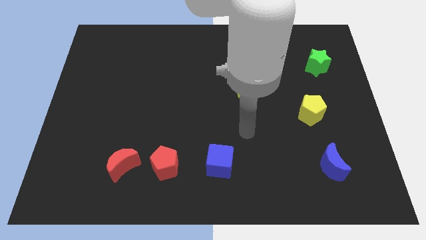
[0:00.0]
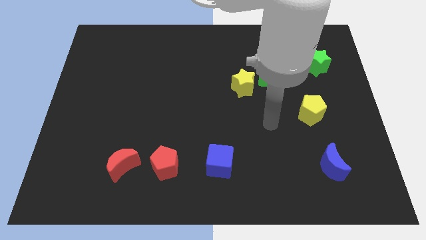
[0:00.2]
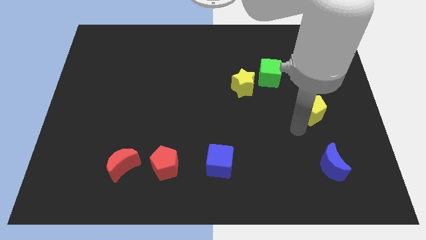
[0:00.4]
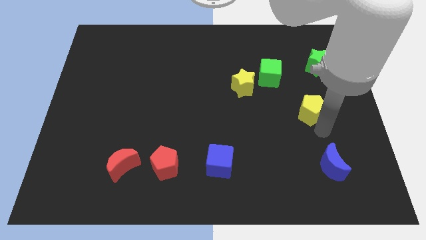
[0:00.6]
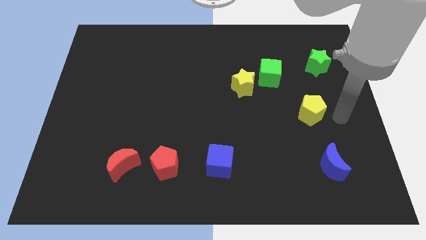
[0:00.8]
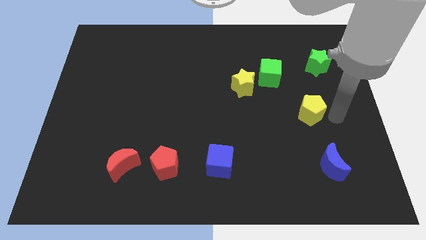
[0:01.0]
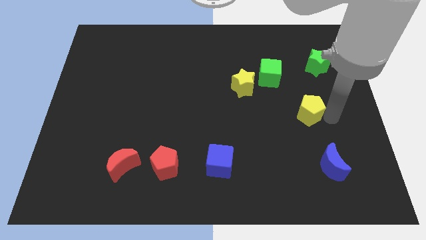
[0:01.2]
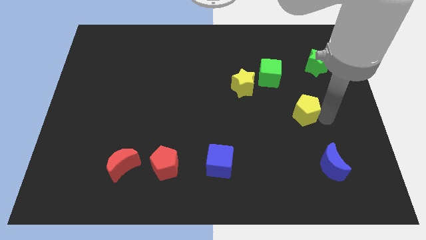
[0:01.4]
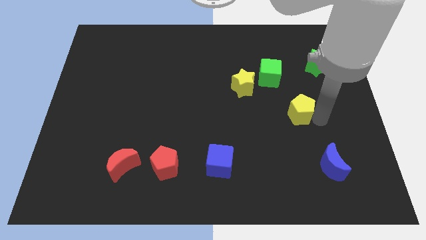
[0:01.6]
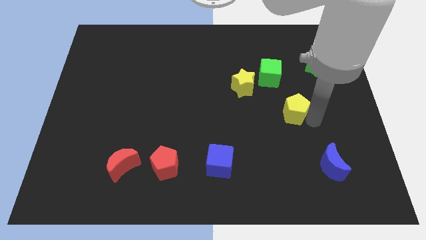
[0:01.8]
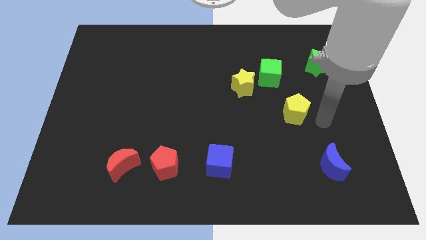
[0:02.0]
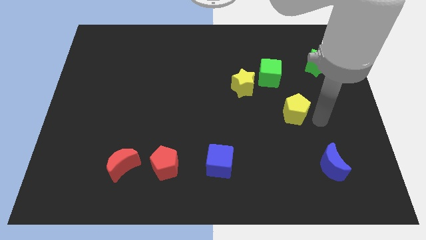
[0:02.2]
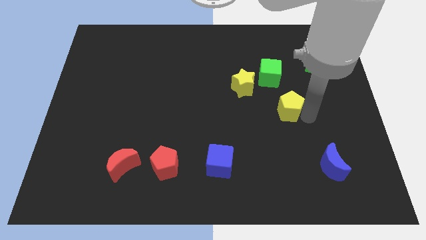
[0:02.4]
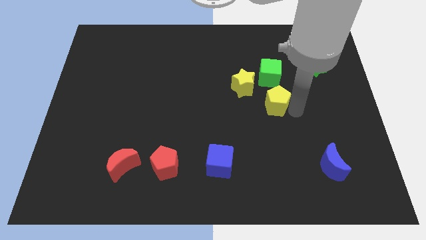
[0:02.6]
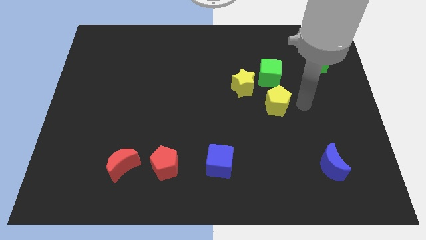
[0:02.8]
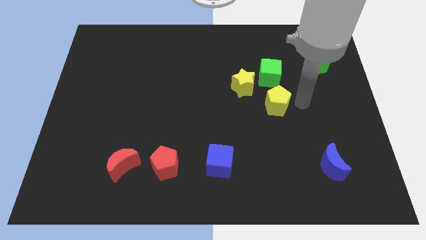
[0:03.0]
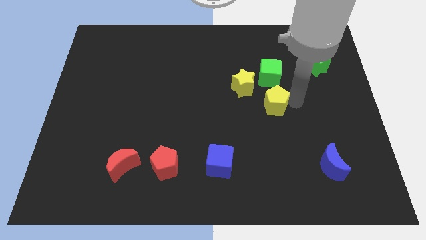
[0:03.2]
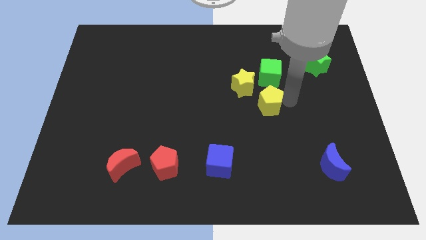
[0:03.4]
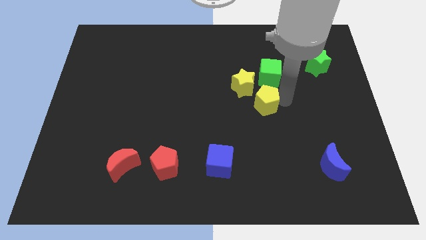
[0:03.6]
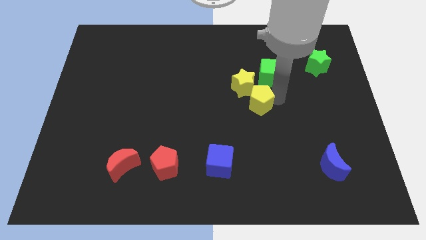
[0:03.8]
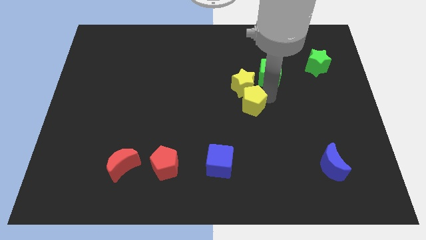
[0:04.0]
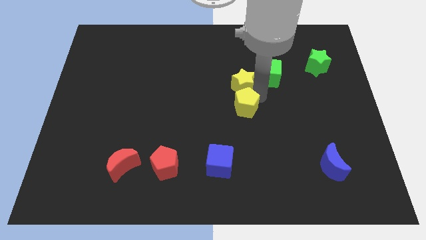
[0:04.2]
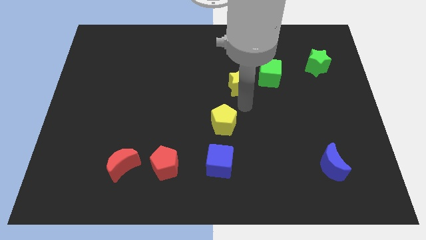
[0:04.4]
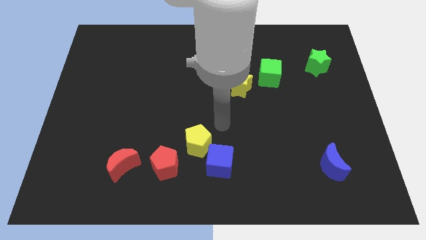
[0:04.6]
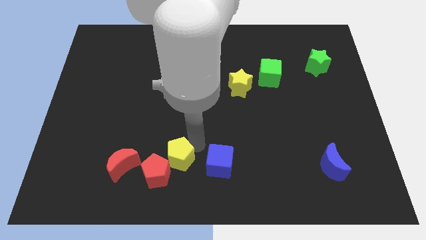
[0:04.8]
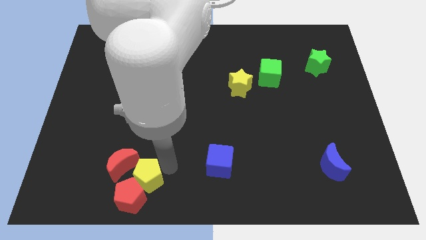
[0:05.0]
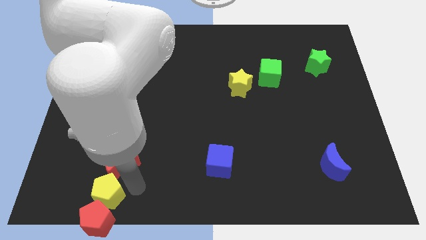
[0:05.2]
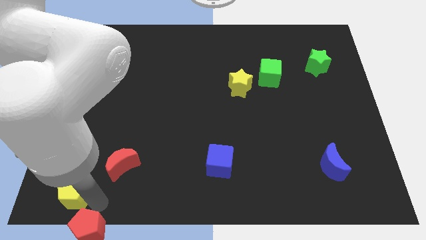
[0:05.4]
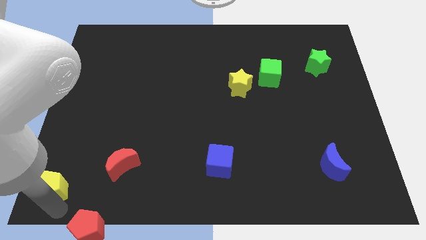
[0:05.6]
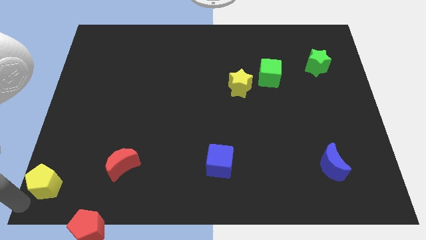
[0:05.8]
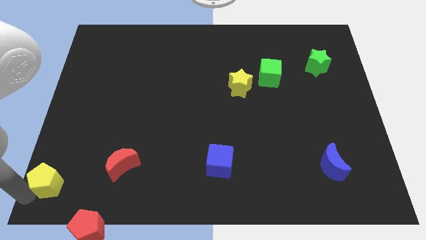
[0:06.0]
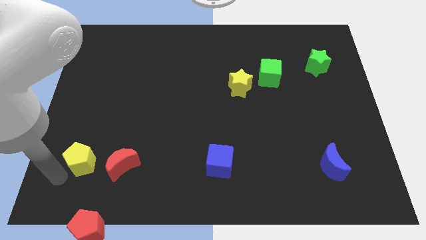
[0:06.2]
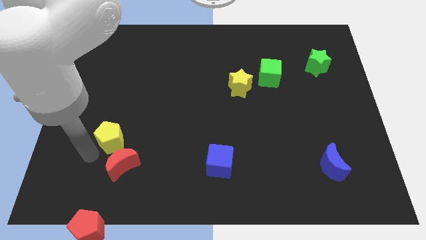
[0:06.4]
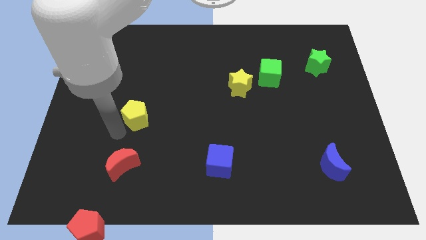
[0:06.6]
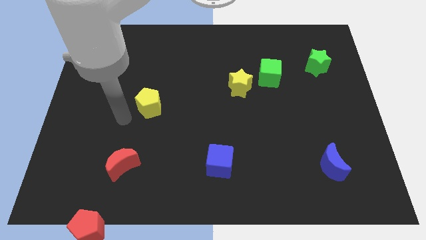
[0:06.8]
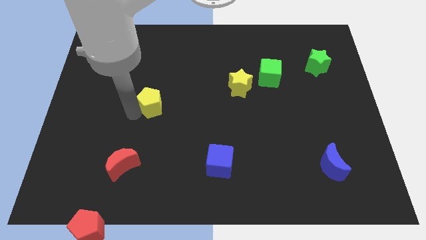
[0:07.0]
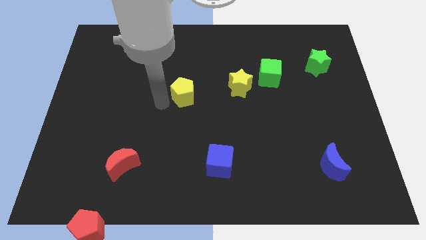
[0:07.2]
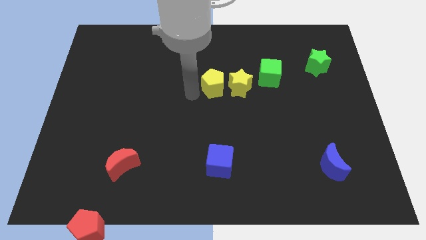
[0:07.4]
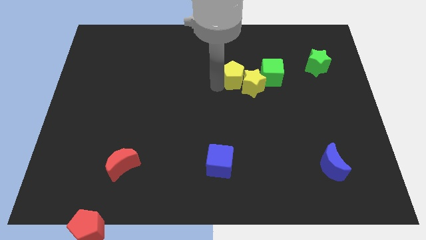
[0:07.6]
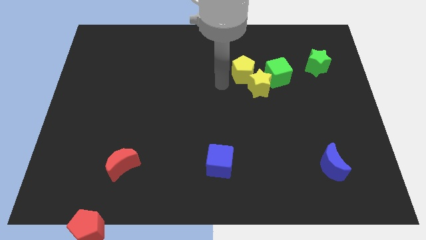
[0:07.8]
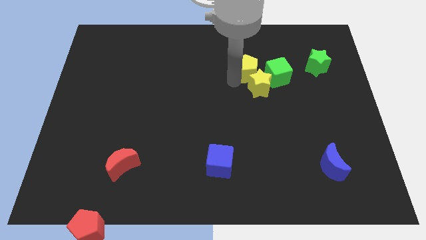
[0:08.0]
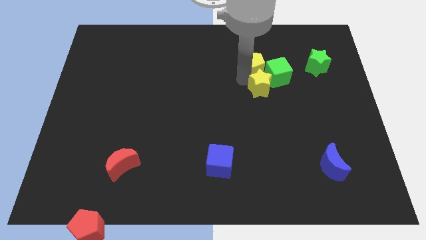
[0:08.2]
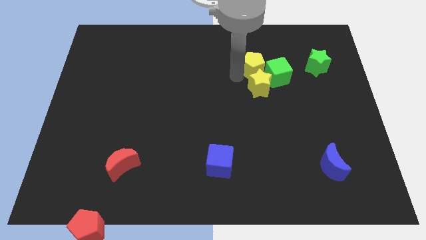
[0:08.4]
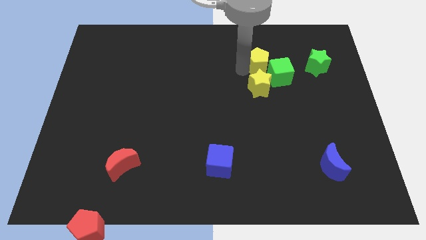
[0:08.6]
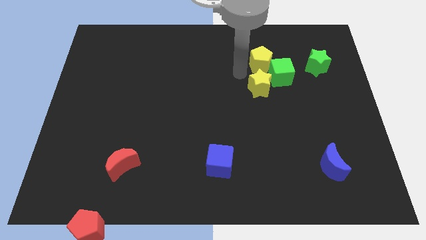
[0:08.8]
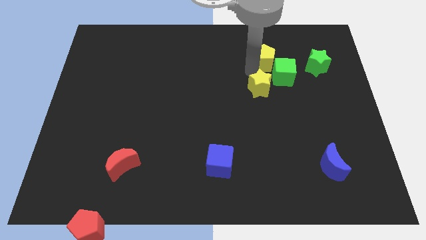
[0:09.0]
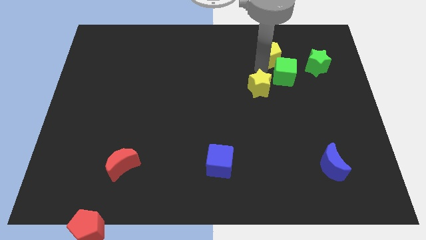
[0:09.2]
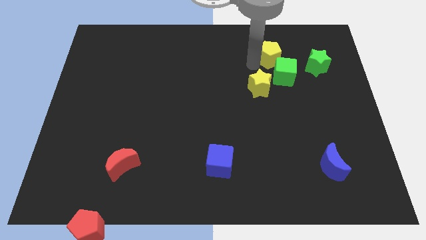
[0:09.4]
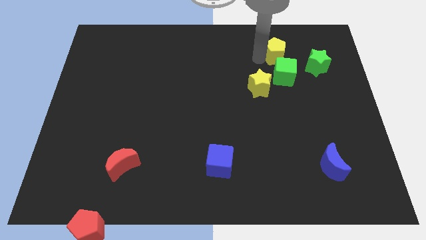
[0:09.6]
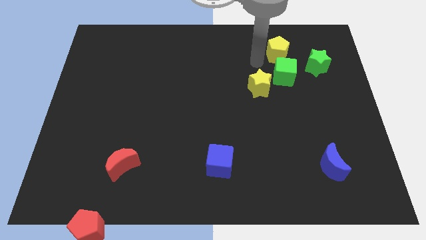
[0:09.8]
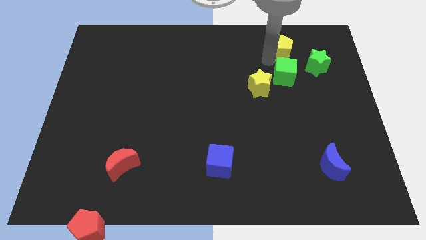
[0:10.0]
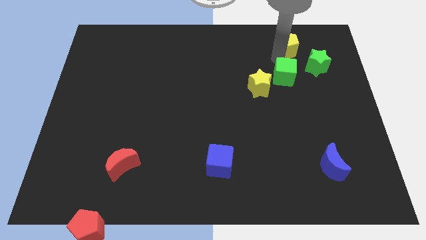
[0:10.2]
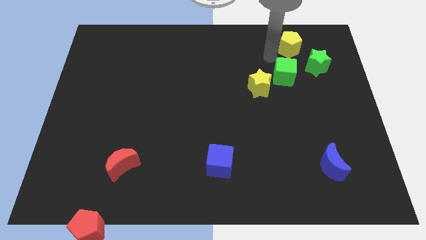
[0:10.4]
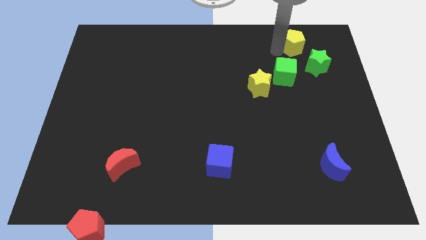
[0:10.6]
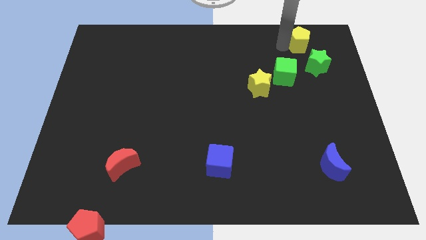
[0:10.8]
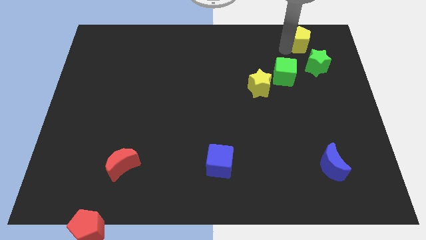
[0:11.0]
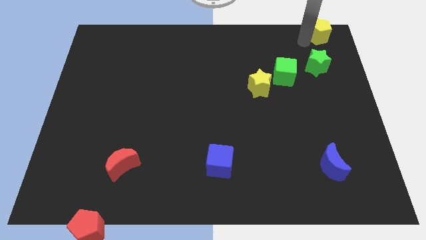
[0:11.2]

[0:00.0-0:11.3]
move the yellow pentagon to the top right of the board

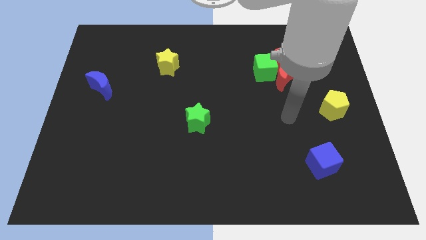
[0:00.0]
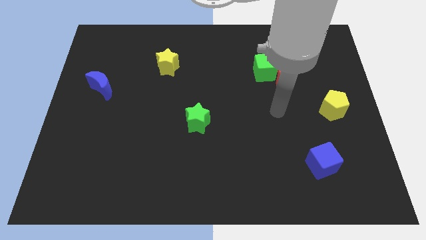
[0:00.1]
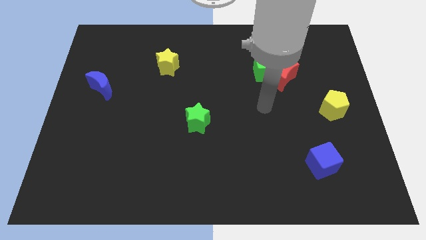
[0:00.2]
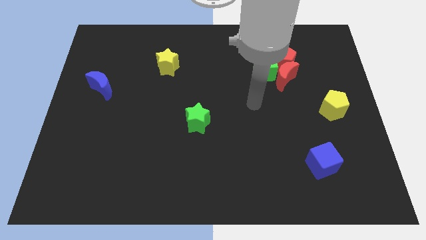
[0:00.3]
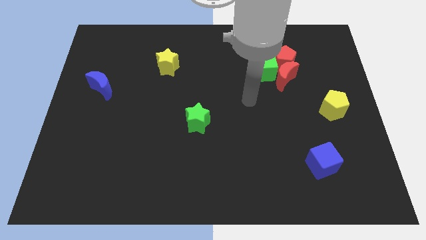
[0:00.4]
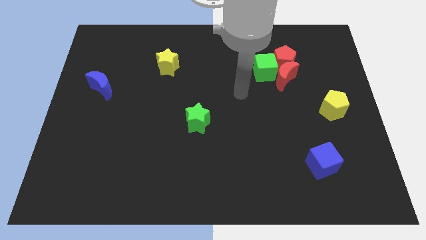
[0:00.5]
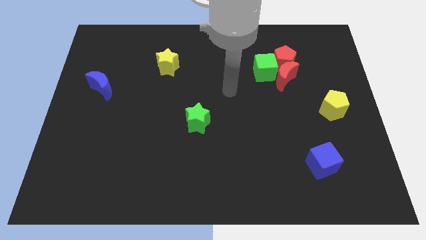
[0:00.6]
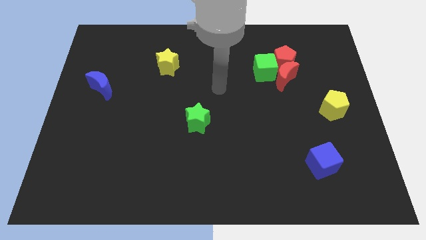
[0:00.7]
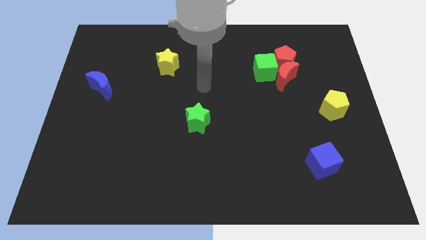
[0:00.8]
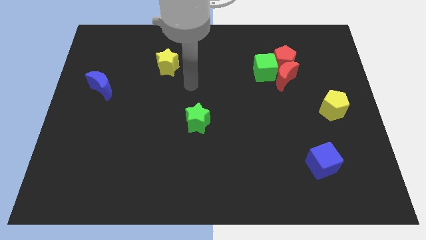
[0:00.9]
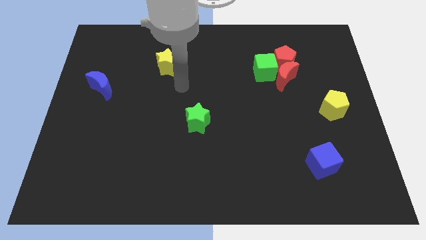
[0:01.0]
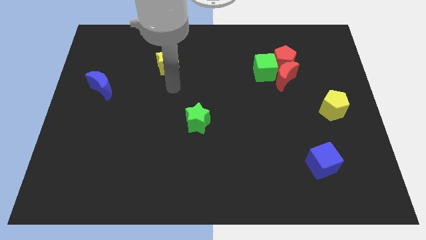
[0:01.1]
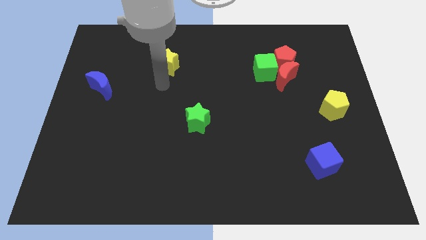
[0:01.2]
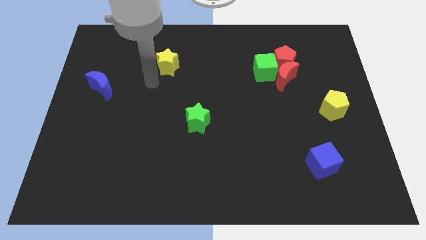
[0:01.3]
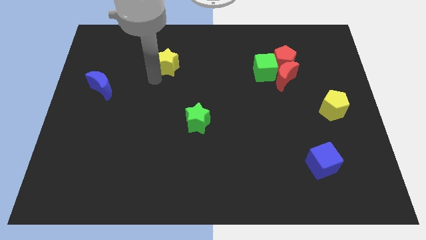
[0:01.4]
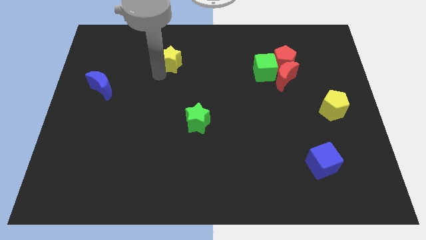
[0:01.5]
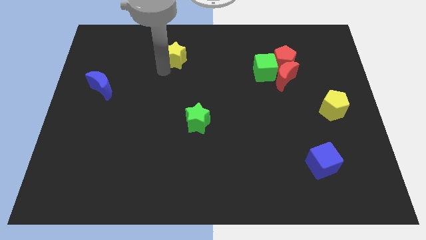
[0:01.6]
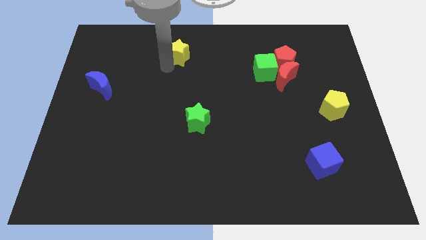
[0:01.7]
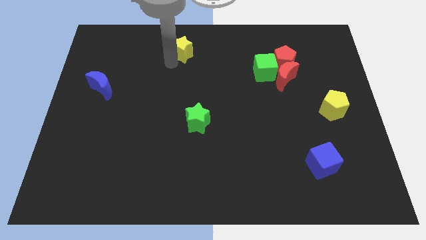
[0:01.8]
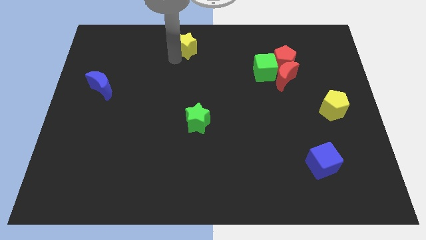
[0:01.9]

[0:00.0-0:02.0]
move the yellow star to the top side
